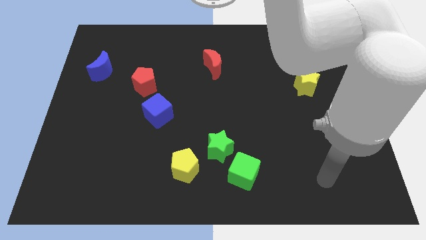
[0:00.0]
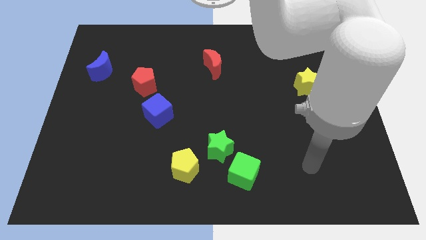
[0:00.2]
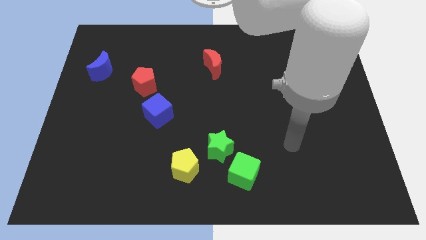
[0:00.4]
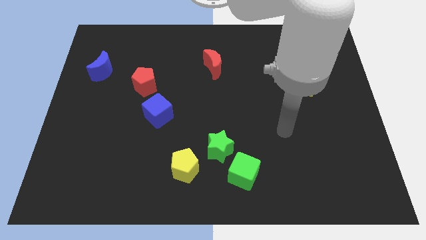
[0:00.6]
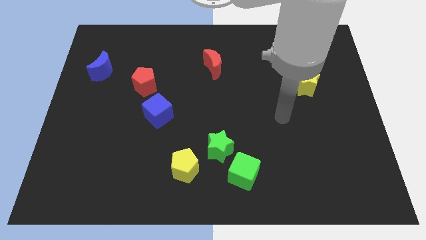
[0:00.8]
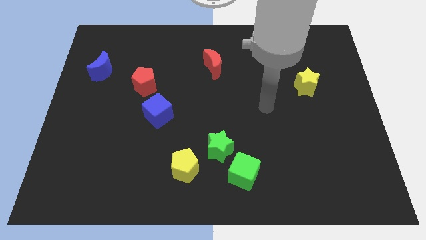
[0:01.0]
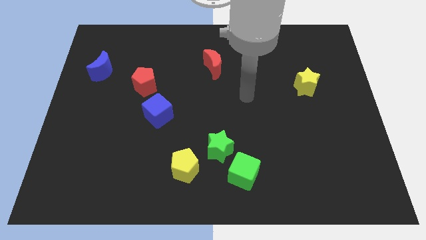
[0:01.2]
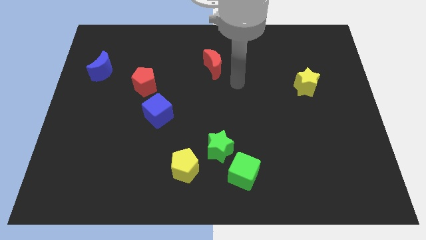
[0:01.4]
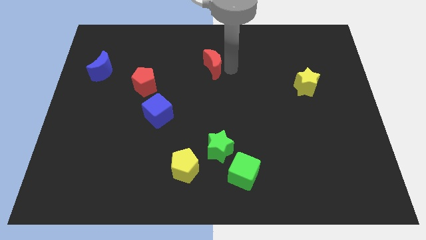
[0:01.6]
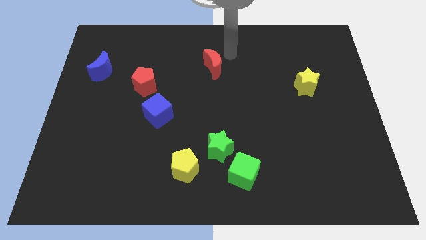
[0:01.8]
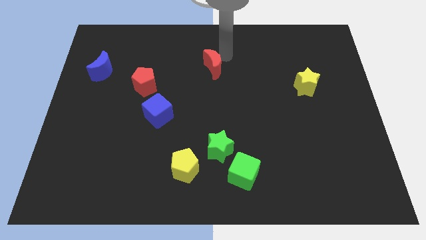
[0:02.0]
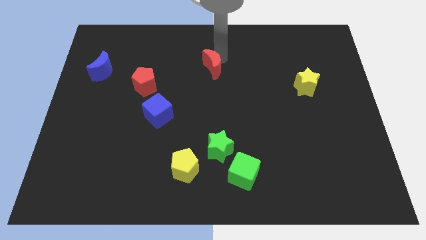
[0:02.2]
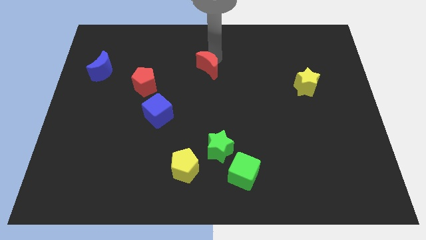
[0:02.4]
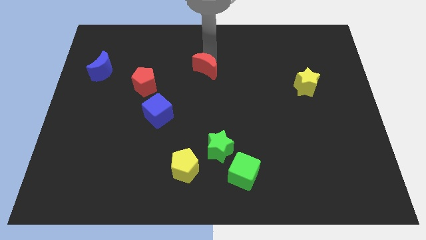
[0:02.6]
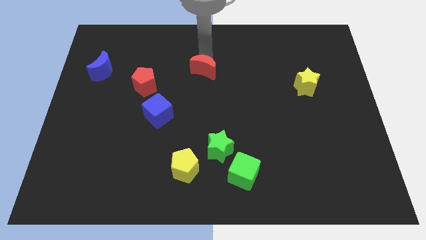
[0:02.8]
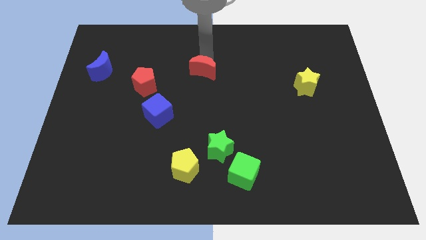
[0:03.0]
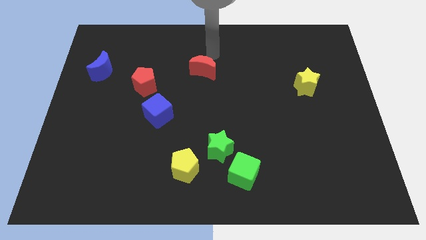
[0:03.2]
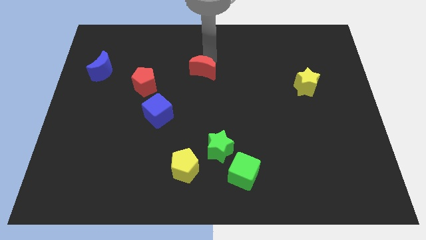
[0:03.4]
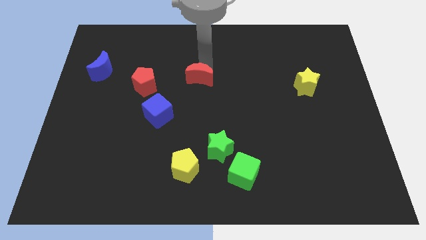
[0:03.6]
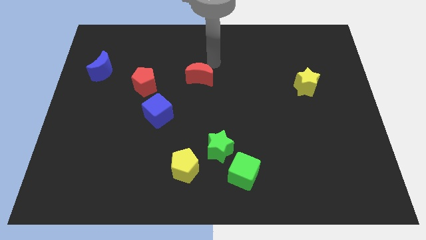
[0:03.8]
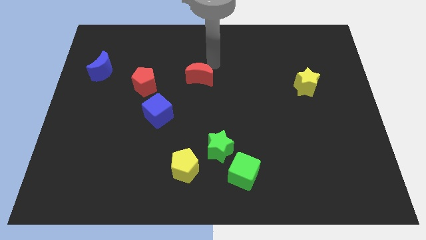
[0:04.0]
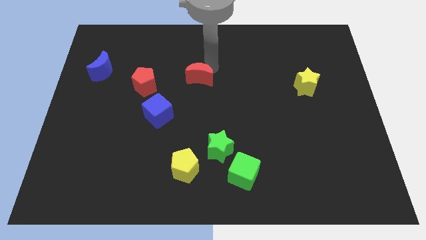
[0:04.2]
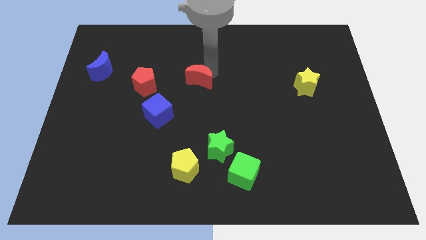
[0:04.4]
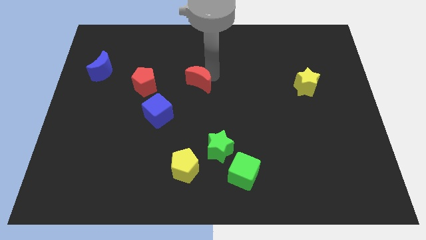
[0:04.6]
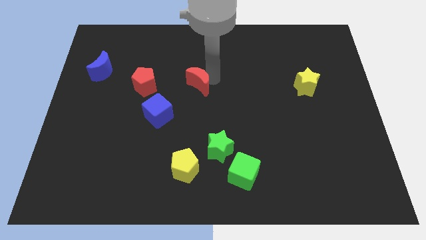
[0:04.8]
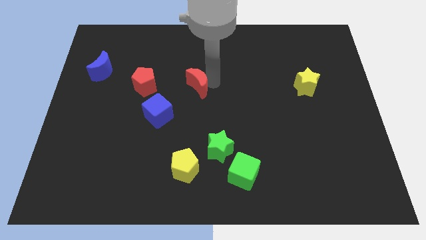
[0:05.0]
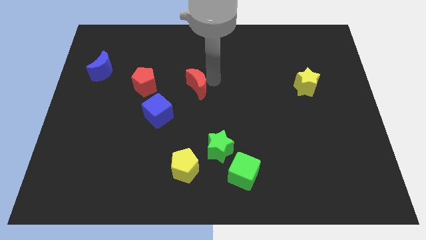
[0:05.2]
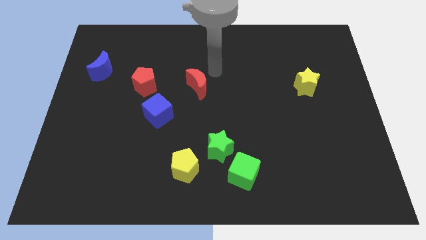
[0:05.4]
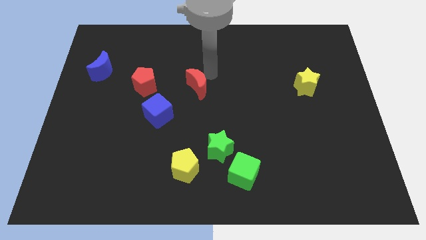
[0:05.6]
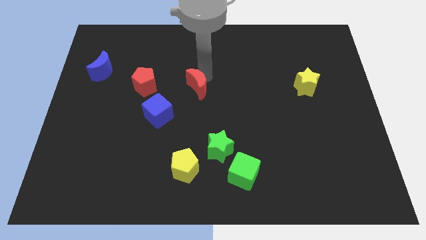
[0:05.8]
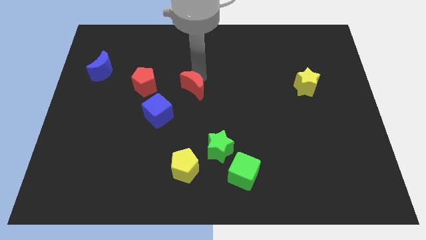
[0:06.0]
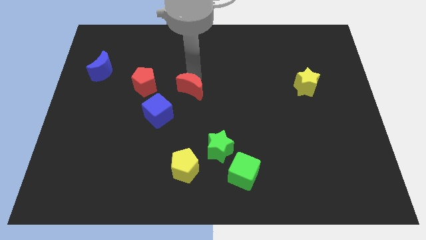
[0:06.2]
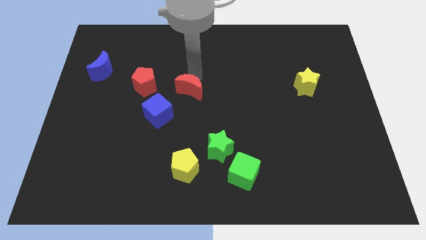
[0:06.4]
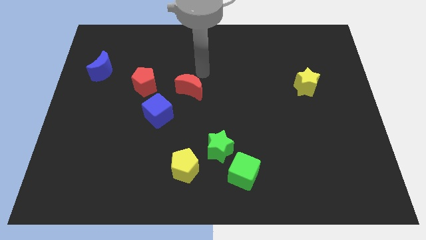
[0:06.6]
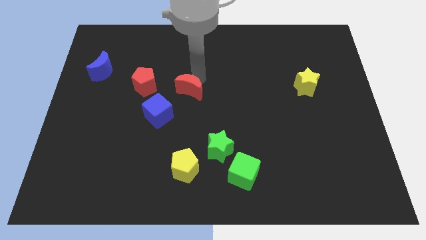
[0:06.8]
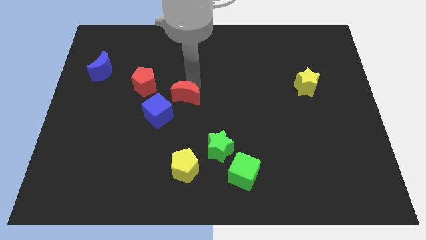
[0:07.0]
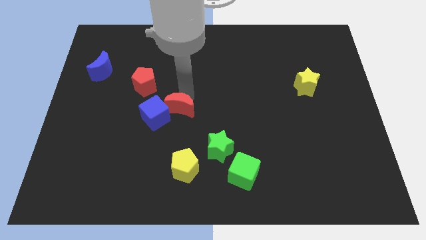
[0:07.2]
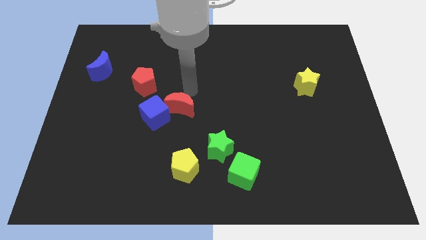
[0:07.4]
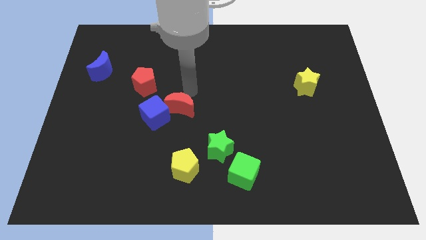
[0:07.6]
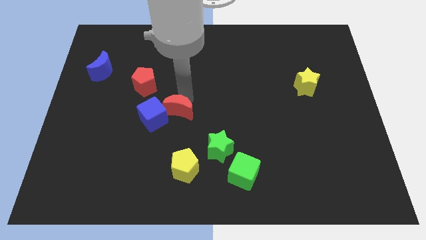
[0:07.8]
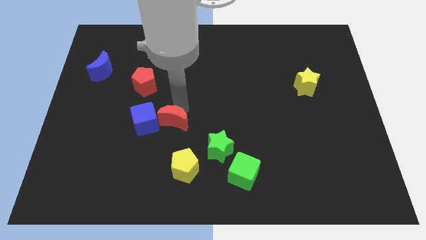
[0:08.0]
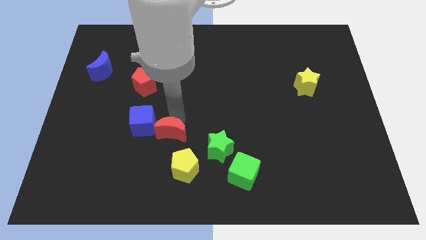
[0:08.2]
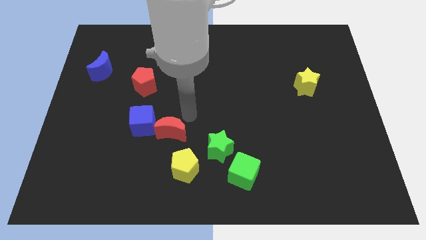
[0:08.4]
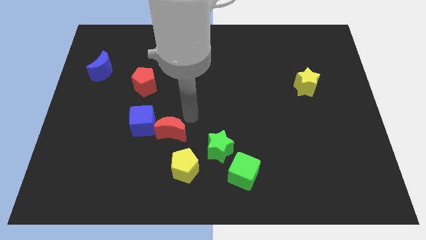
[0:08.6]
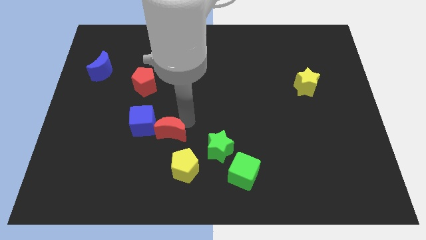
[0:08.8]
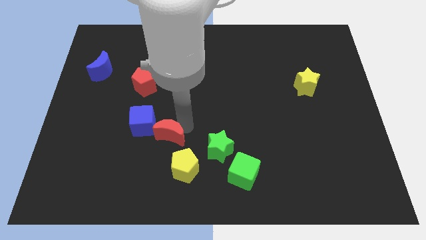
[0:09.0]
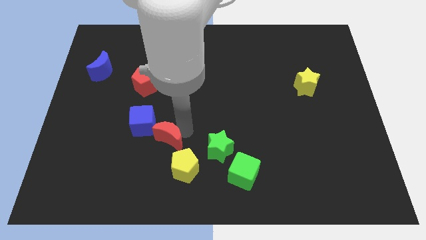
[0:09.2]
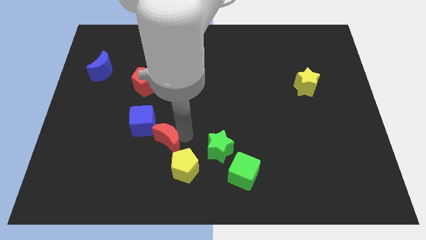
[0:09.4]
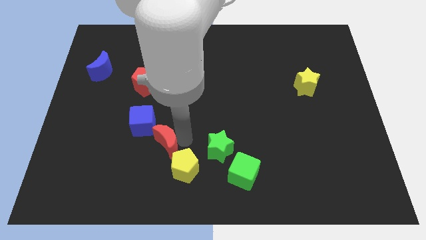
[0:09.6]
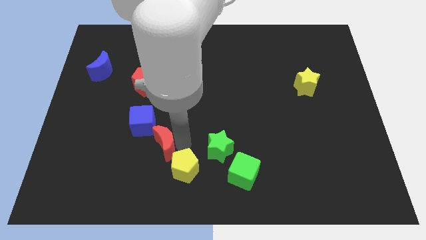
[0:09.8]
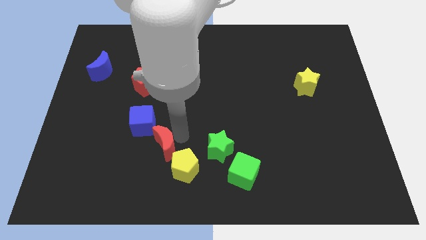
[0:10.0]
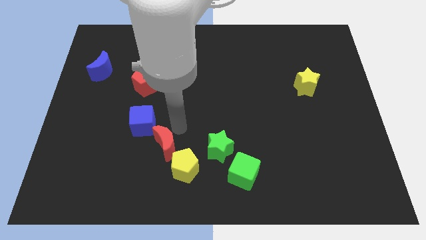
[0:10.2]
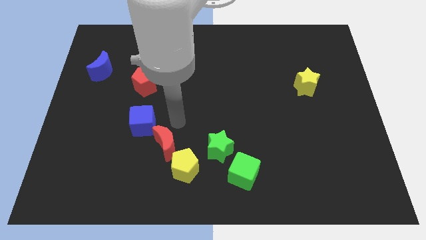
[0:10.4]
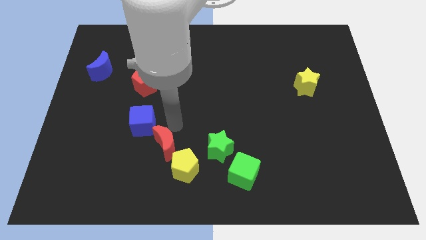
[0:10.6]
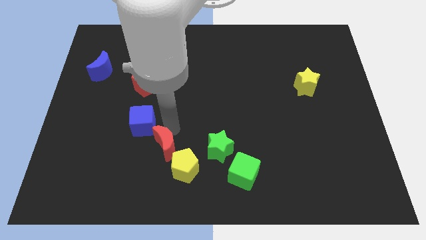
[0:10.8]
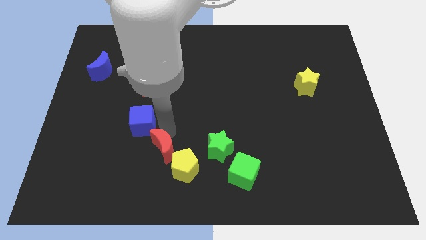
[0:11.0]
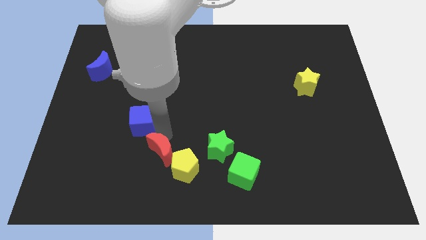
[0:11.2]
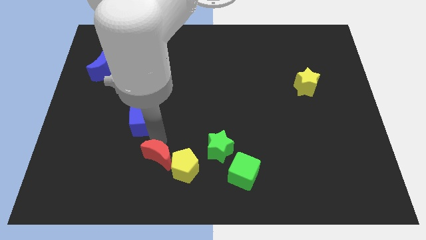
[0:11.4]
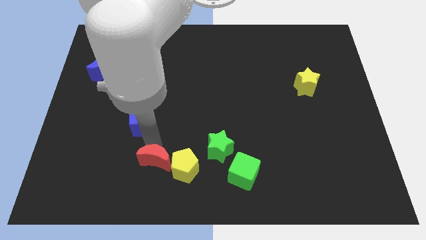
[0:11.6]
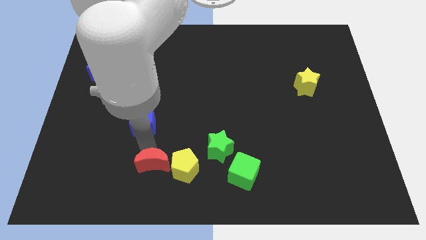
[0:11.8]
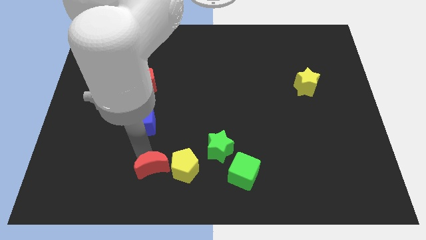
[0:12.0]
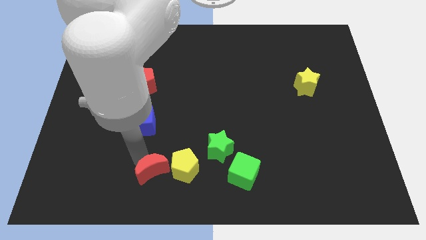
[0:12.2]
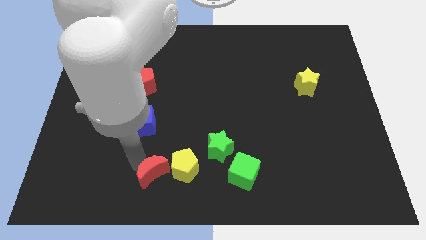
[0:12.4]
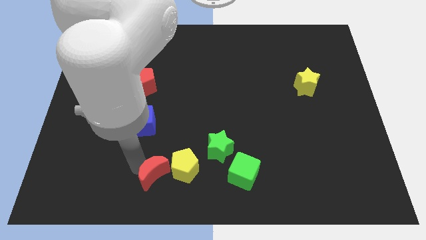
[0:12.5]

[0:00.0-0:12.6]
push the red moon down

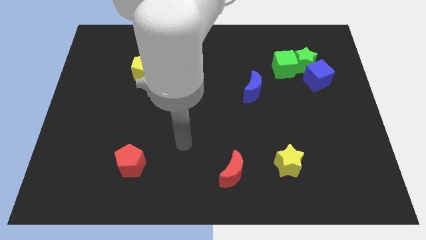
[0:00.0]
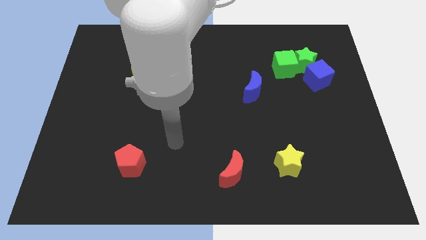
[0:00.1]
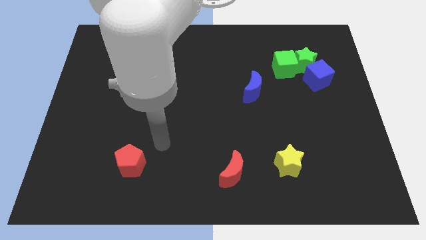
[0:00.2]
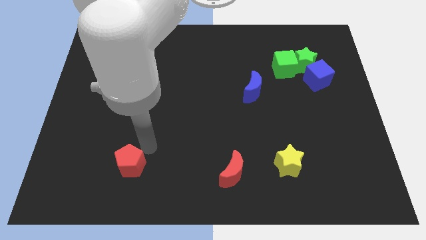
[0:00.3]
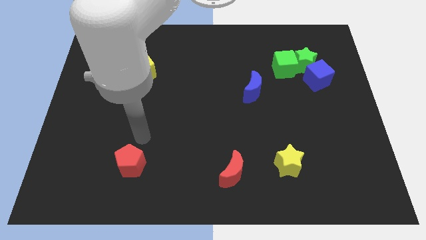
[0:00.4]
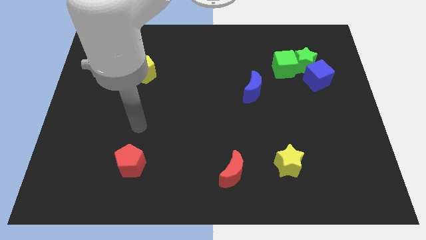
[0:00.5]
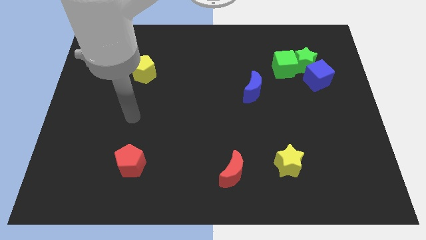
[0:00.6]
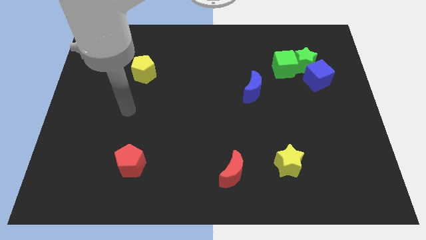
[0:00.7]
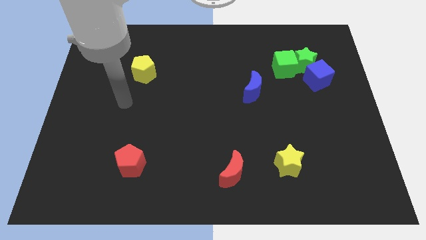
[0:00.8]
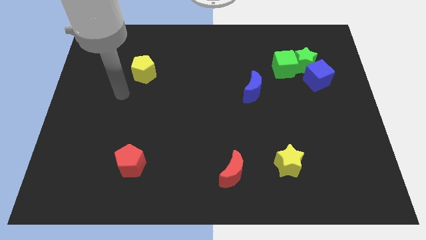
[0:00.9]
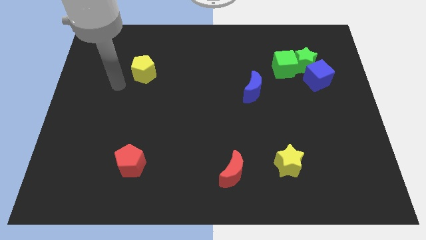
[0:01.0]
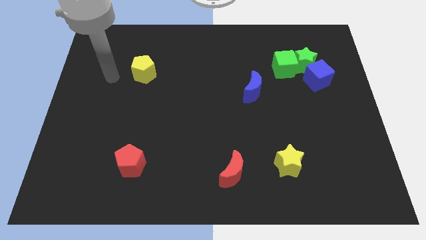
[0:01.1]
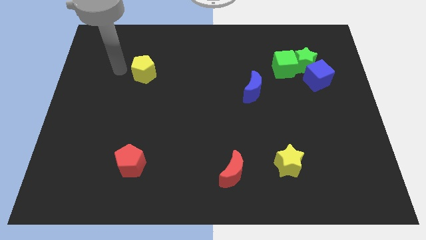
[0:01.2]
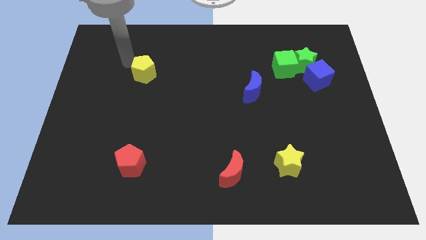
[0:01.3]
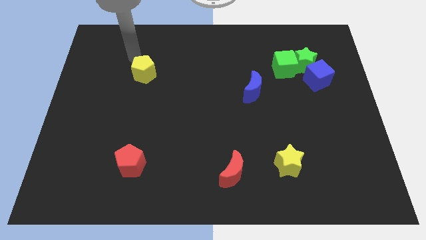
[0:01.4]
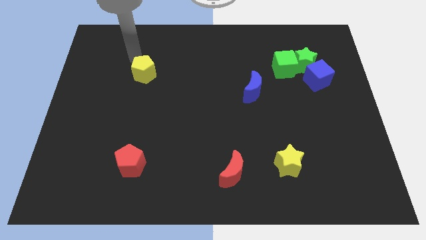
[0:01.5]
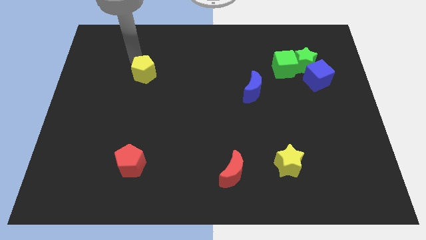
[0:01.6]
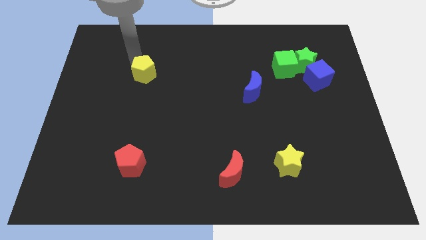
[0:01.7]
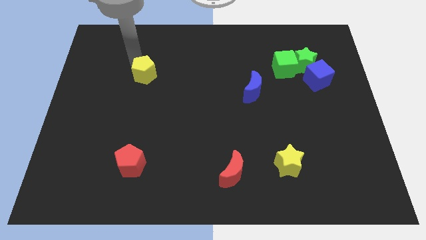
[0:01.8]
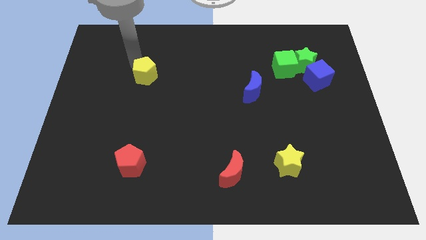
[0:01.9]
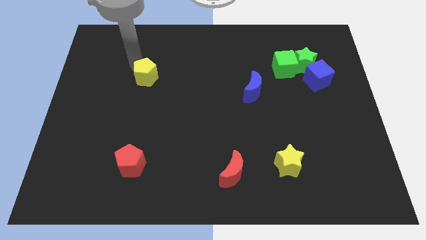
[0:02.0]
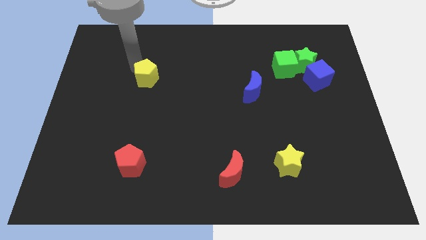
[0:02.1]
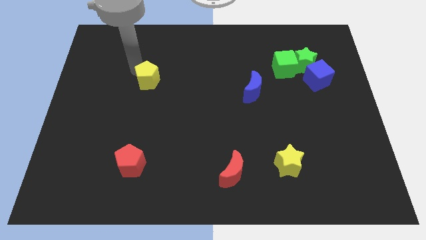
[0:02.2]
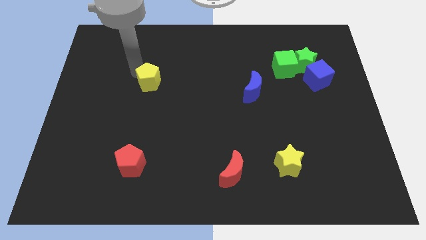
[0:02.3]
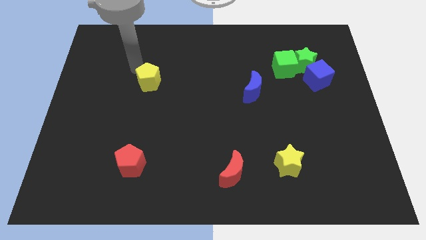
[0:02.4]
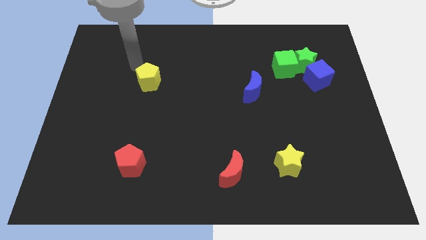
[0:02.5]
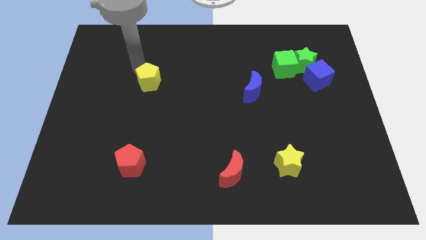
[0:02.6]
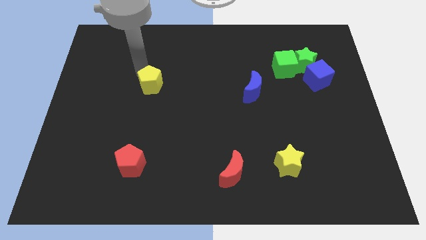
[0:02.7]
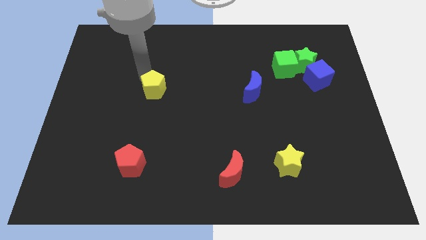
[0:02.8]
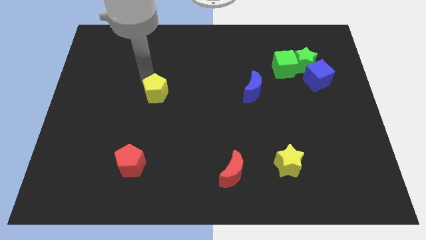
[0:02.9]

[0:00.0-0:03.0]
slightly slide the yellow pentagon downwards and right diagonally
